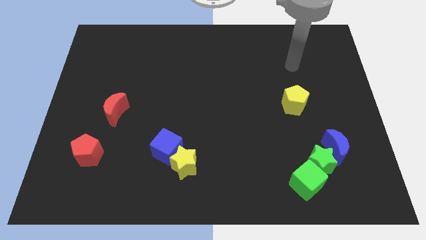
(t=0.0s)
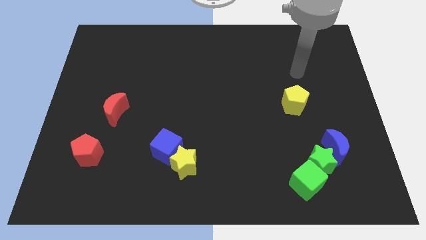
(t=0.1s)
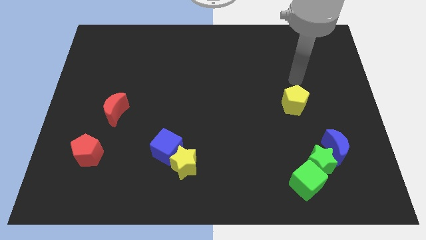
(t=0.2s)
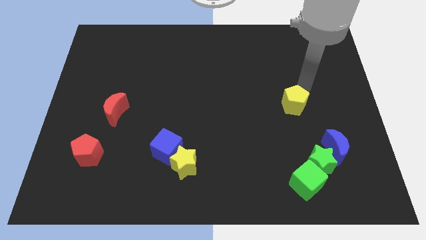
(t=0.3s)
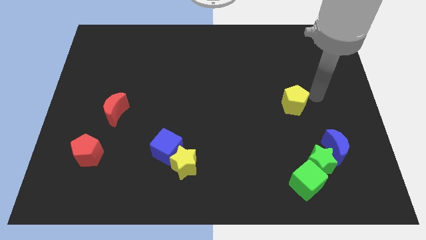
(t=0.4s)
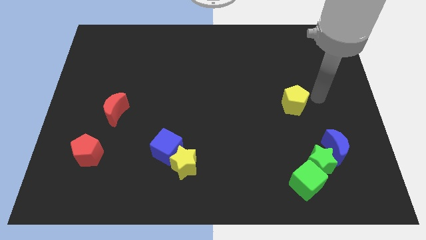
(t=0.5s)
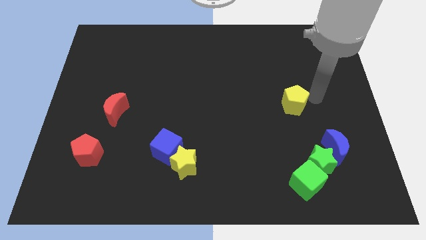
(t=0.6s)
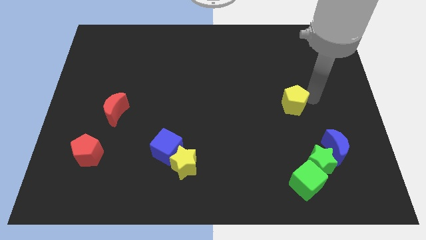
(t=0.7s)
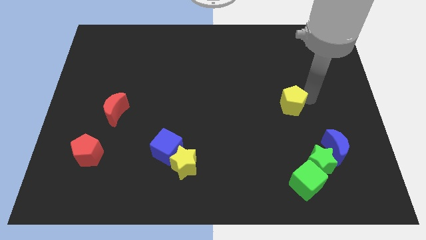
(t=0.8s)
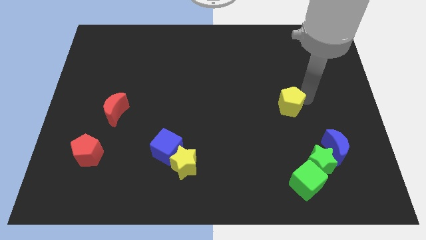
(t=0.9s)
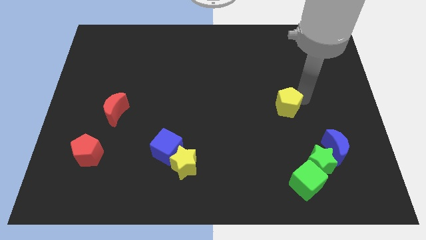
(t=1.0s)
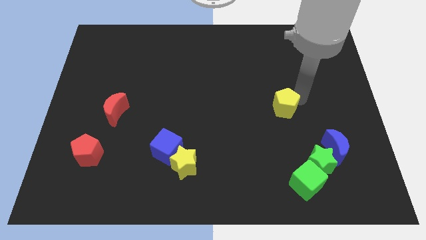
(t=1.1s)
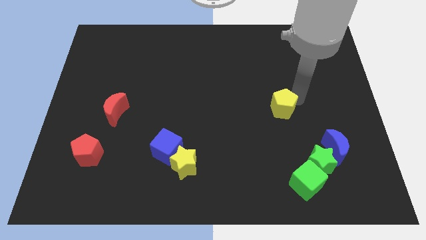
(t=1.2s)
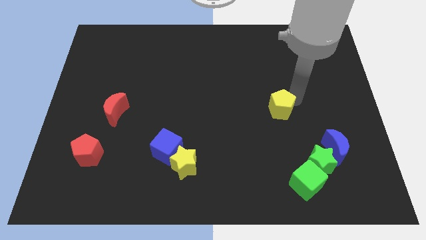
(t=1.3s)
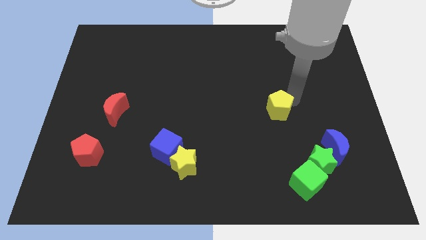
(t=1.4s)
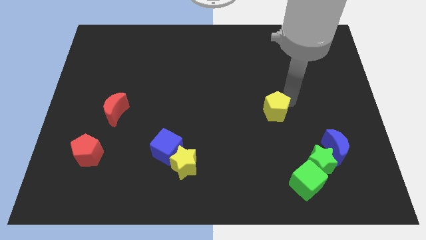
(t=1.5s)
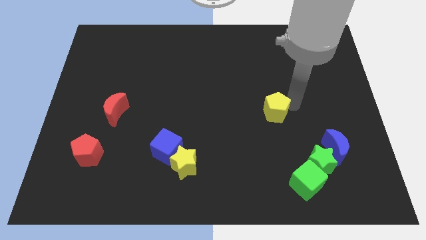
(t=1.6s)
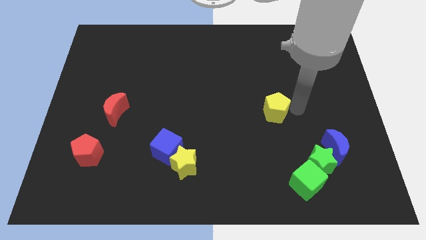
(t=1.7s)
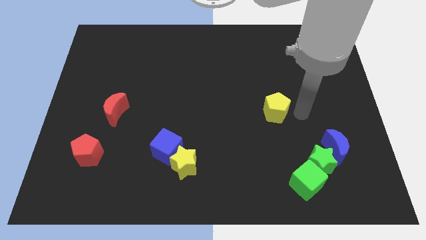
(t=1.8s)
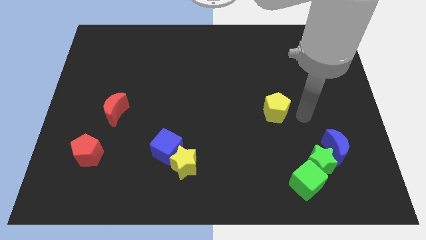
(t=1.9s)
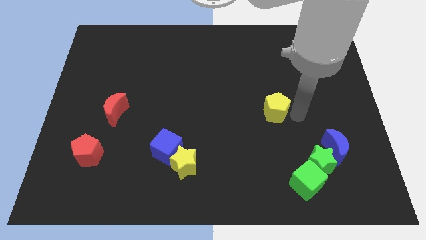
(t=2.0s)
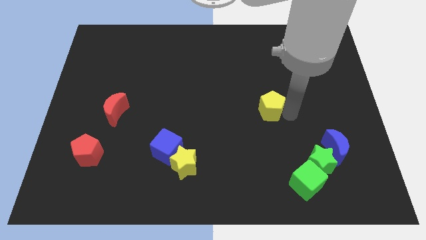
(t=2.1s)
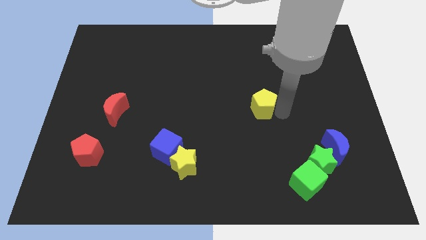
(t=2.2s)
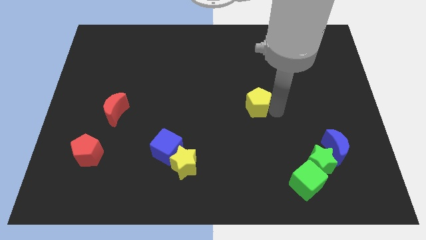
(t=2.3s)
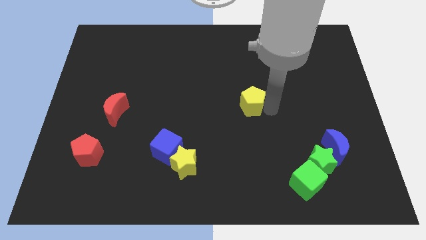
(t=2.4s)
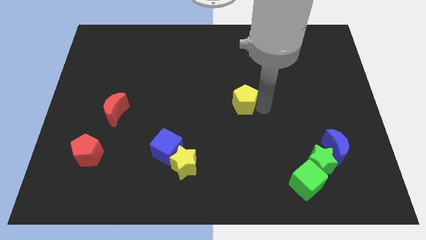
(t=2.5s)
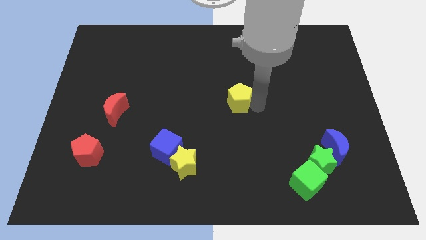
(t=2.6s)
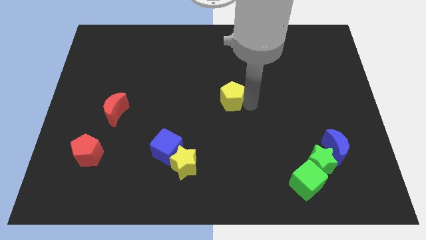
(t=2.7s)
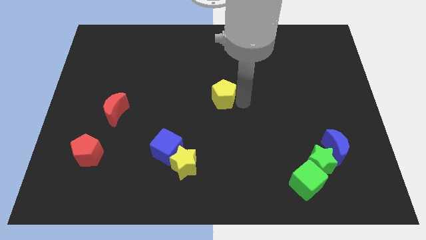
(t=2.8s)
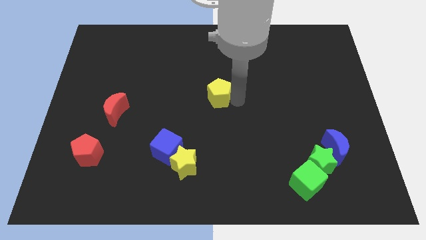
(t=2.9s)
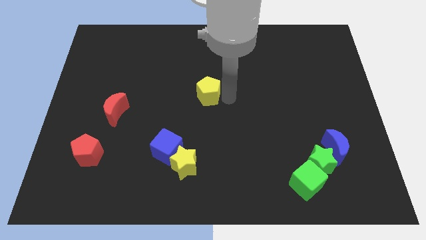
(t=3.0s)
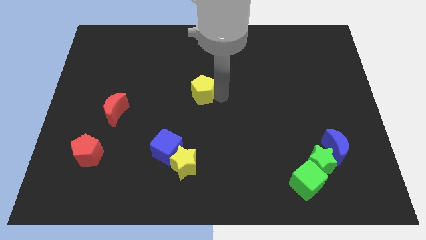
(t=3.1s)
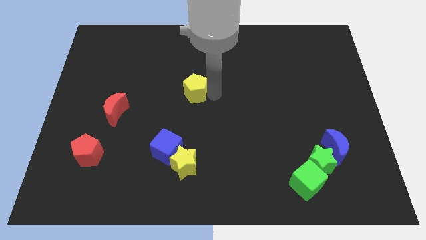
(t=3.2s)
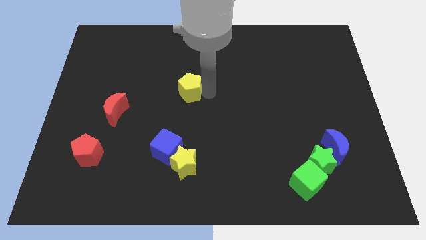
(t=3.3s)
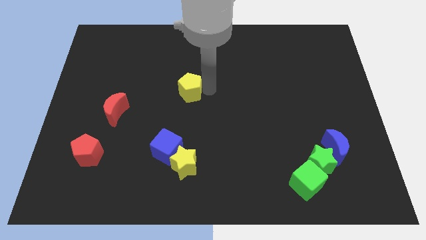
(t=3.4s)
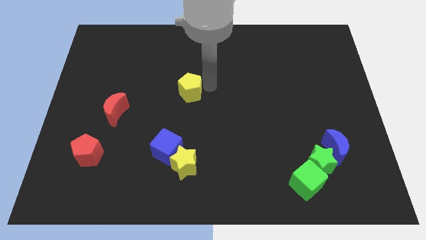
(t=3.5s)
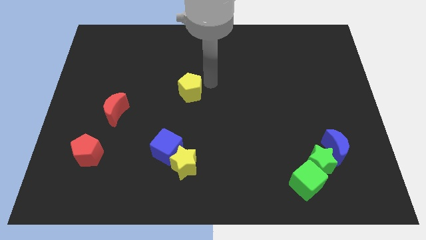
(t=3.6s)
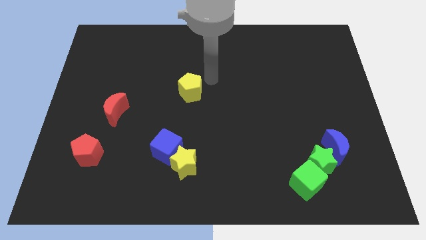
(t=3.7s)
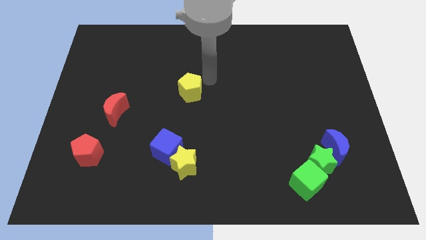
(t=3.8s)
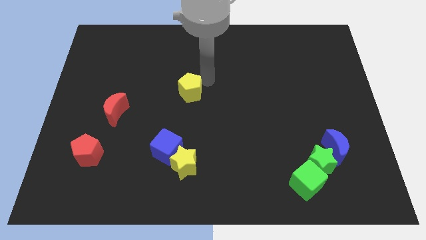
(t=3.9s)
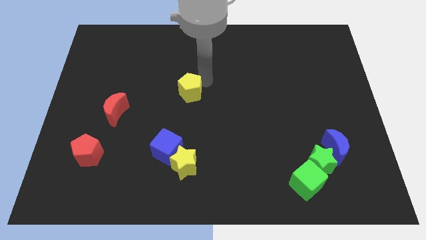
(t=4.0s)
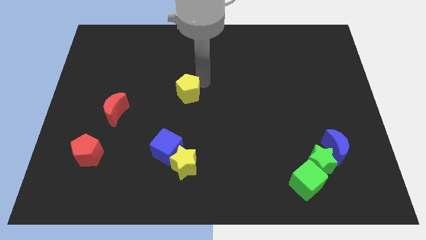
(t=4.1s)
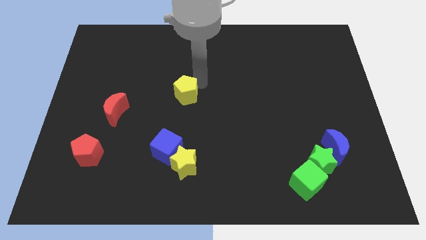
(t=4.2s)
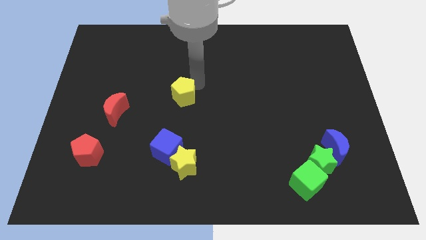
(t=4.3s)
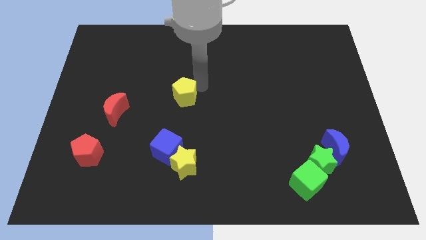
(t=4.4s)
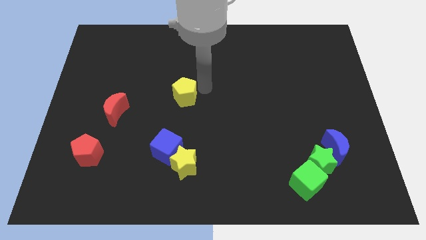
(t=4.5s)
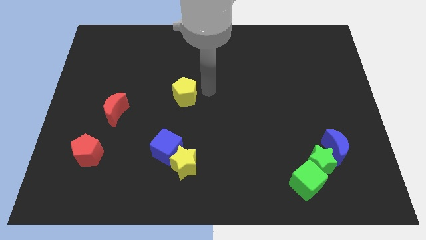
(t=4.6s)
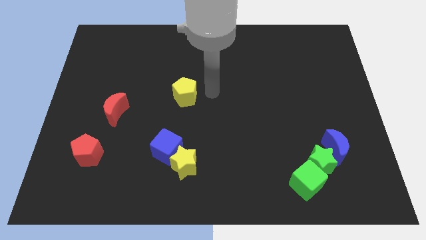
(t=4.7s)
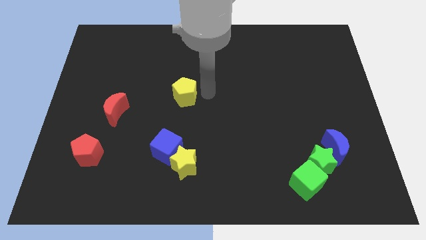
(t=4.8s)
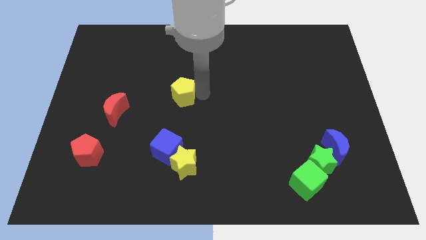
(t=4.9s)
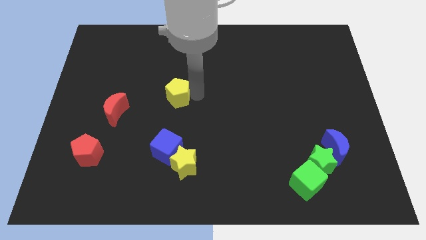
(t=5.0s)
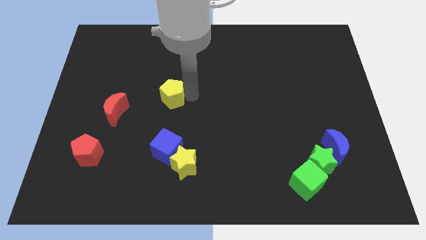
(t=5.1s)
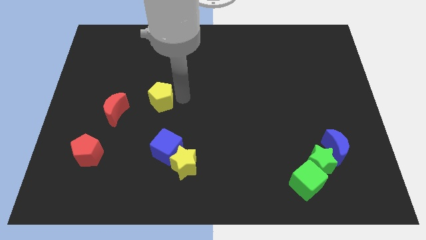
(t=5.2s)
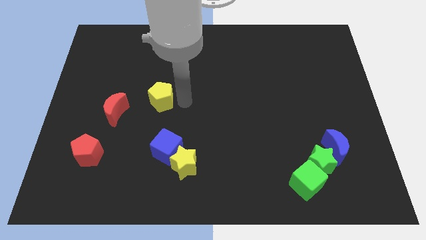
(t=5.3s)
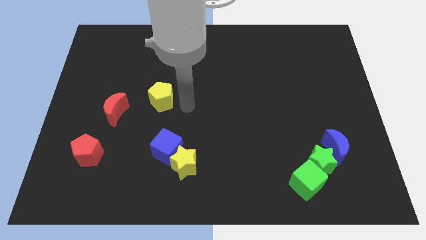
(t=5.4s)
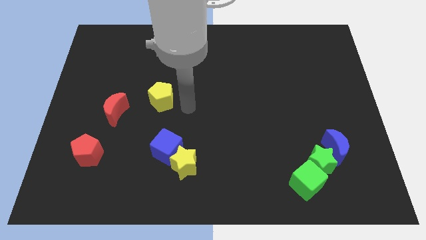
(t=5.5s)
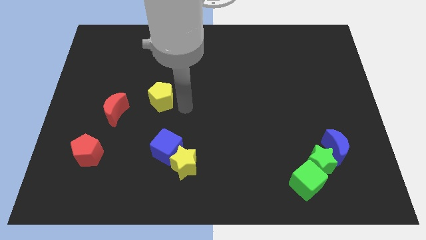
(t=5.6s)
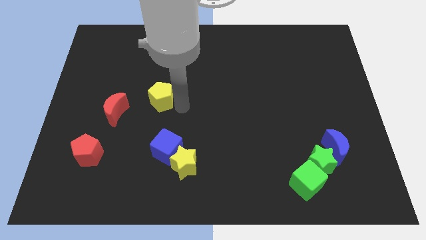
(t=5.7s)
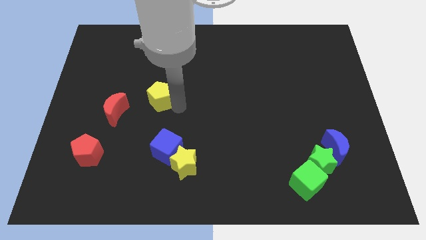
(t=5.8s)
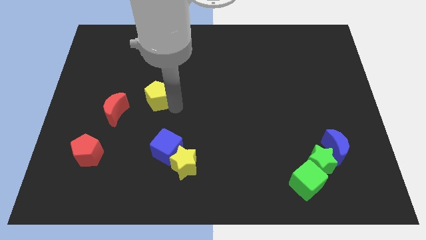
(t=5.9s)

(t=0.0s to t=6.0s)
move the yellow pentagon to the top right side of the red moon

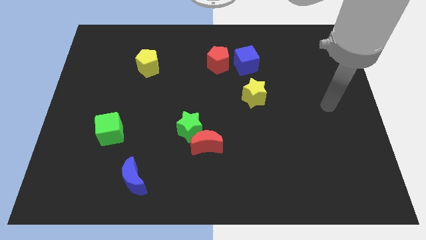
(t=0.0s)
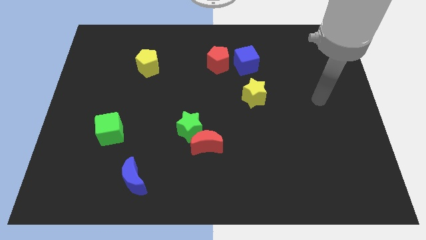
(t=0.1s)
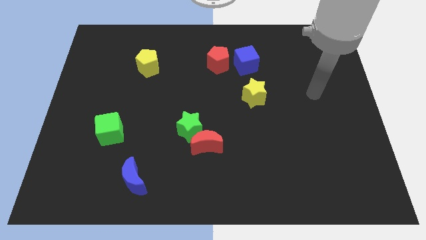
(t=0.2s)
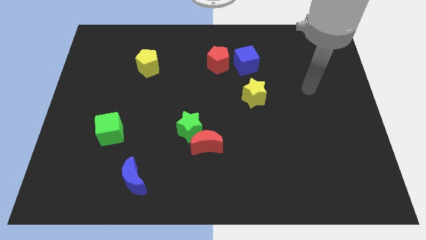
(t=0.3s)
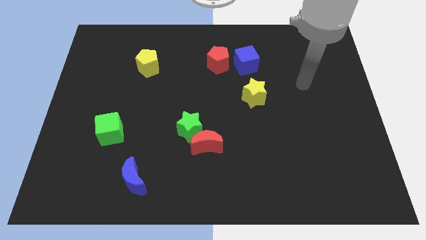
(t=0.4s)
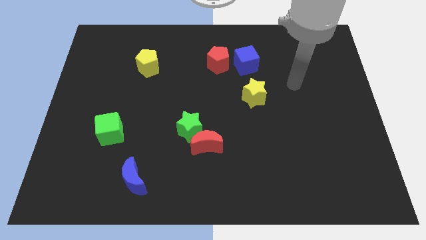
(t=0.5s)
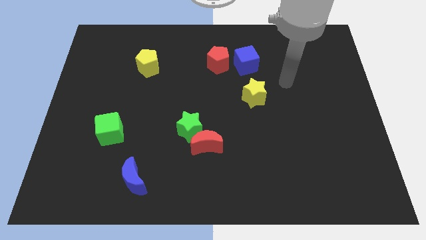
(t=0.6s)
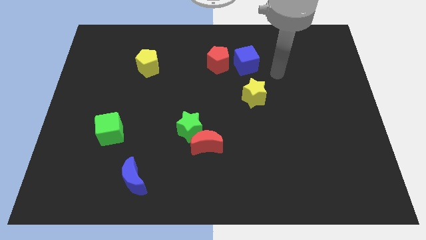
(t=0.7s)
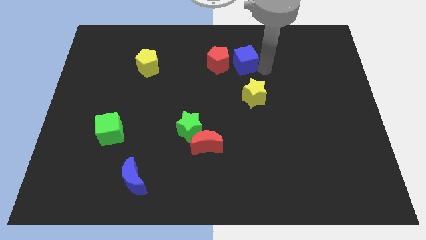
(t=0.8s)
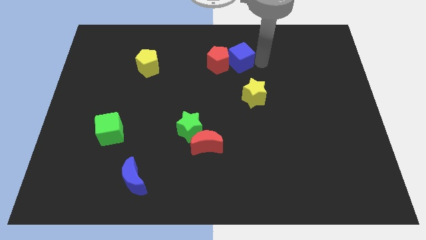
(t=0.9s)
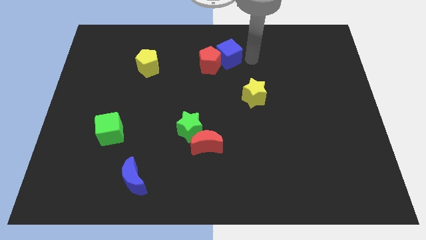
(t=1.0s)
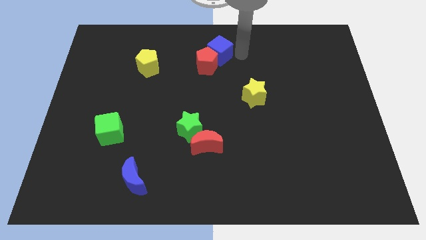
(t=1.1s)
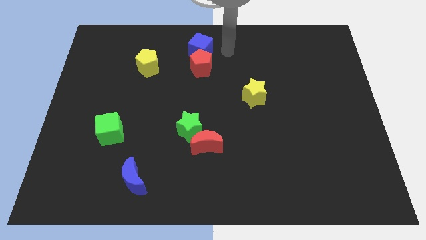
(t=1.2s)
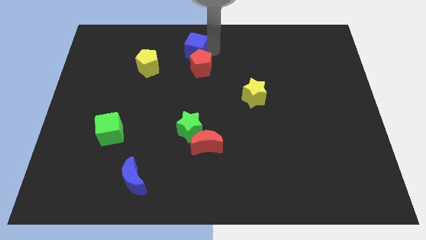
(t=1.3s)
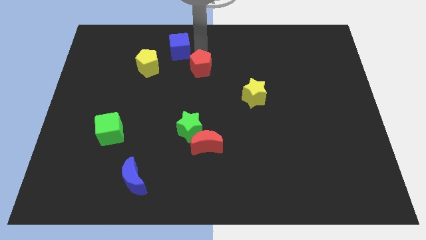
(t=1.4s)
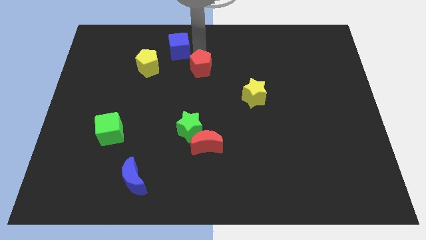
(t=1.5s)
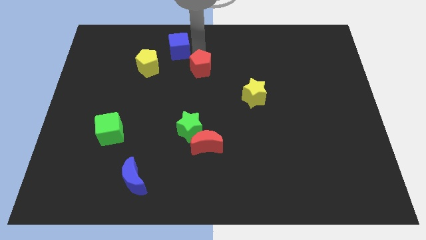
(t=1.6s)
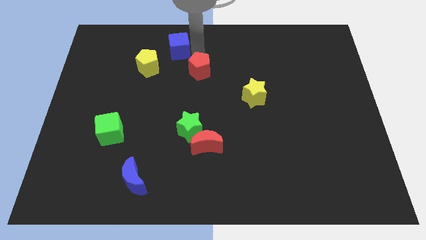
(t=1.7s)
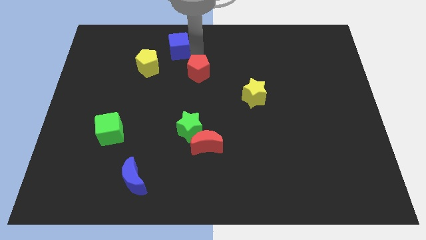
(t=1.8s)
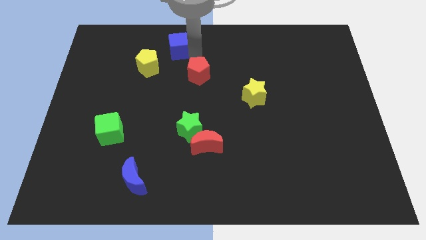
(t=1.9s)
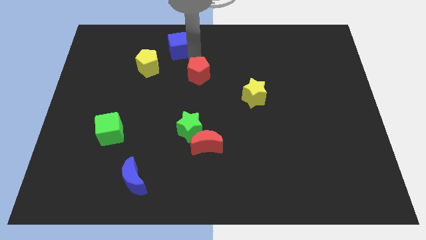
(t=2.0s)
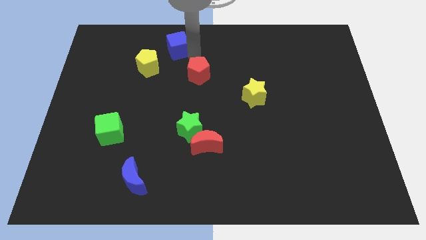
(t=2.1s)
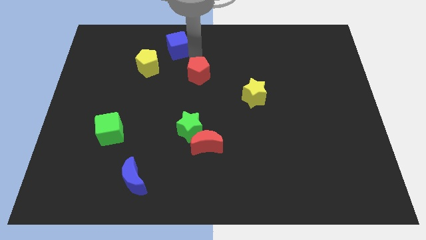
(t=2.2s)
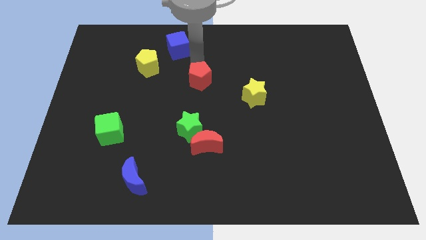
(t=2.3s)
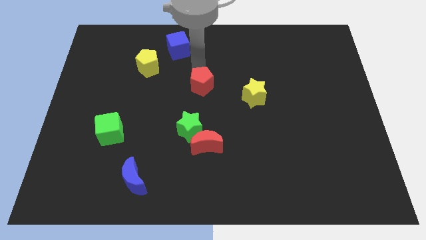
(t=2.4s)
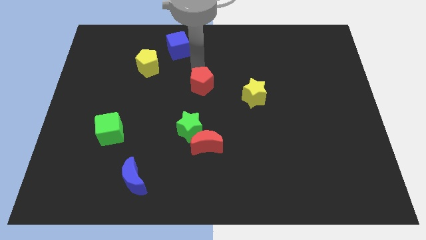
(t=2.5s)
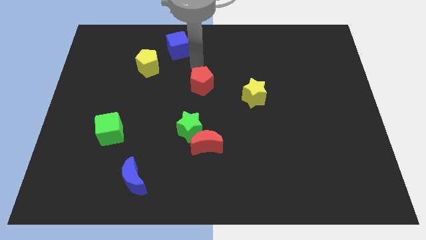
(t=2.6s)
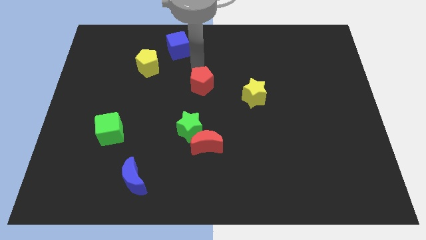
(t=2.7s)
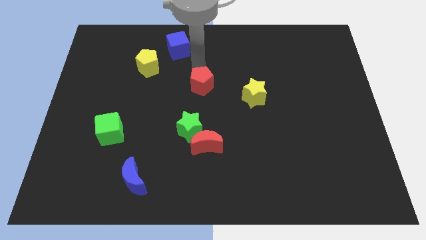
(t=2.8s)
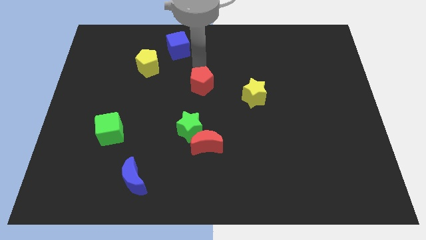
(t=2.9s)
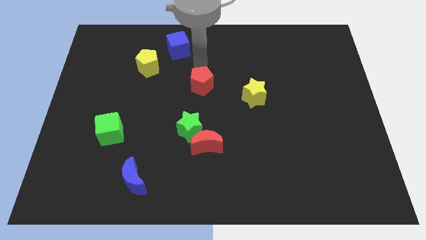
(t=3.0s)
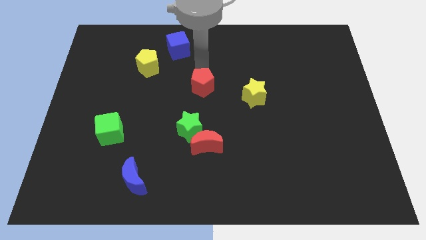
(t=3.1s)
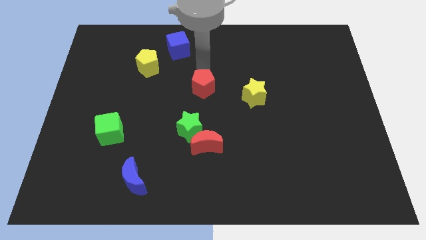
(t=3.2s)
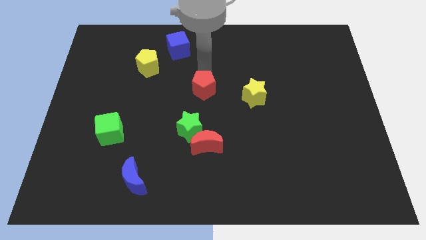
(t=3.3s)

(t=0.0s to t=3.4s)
slide the red pentagon to the top of the red moon
